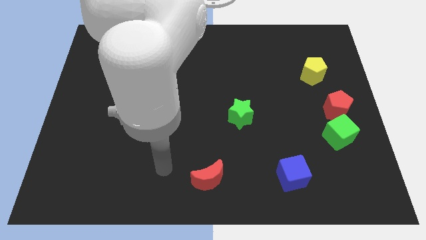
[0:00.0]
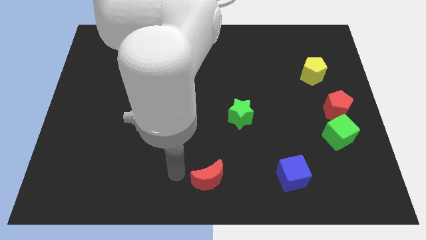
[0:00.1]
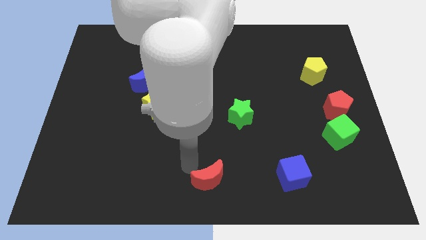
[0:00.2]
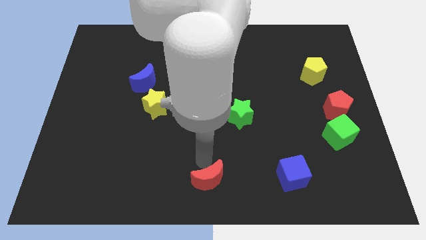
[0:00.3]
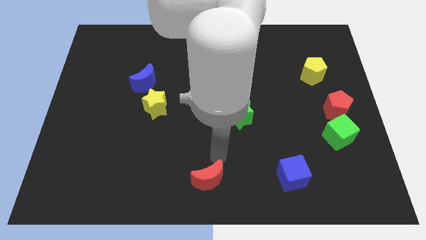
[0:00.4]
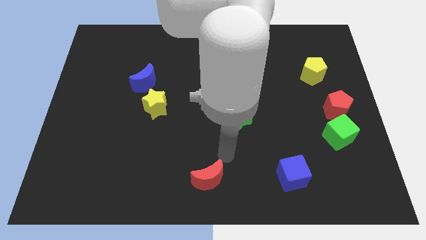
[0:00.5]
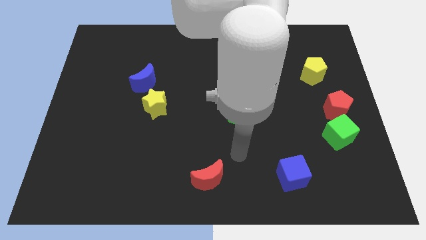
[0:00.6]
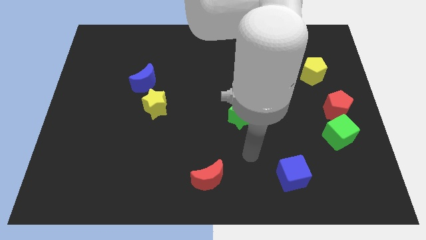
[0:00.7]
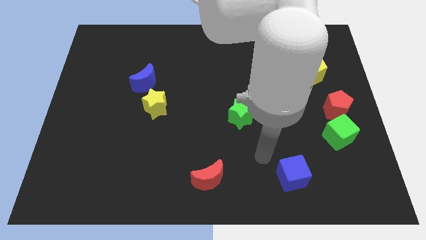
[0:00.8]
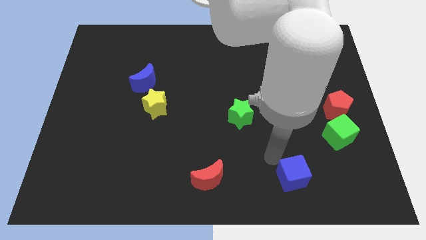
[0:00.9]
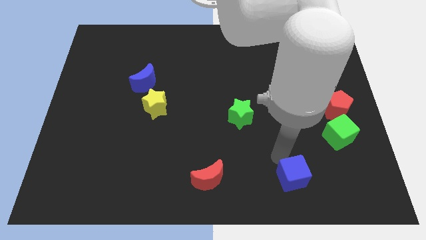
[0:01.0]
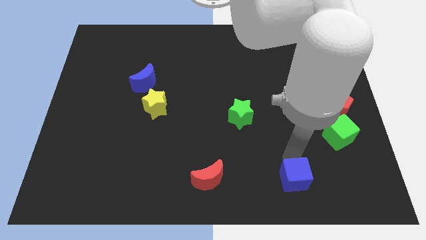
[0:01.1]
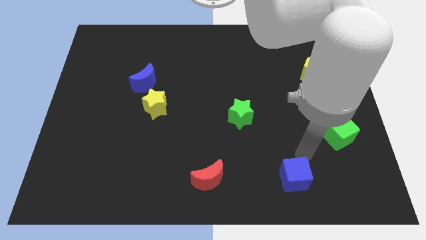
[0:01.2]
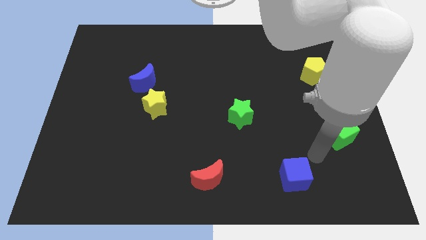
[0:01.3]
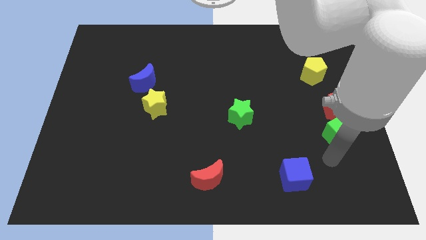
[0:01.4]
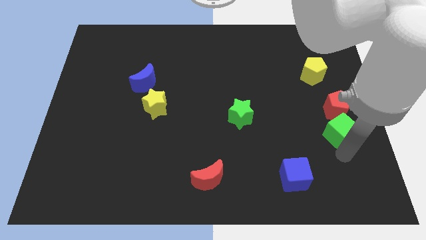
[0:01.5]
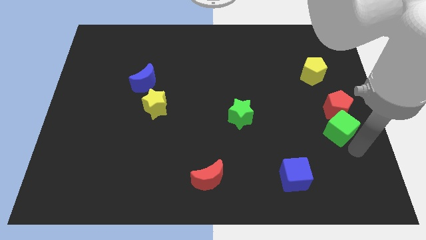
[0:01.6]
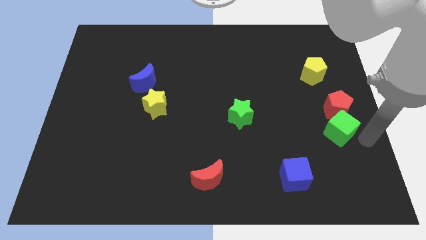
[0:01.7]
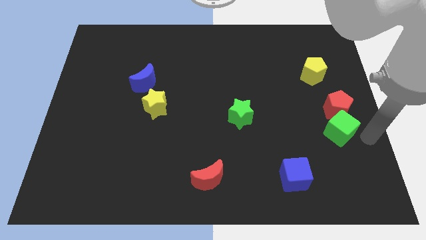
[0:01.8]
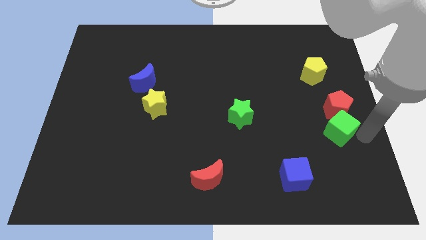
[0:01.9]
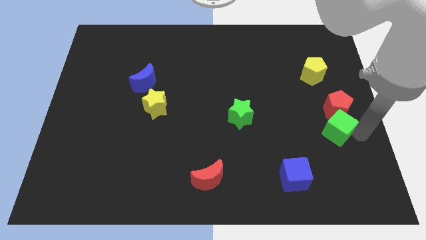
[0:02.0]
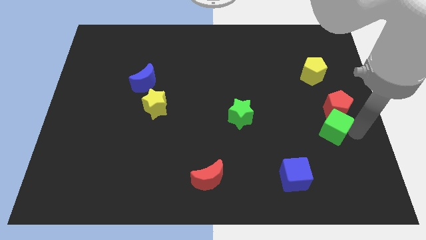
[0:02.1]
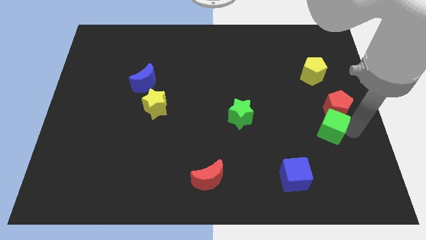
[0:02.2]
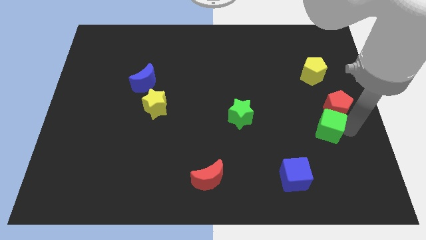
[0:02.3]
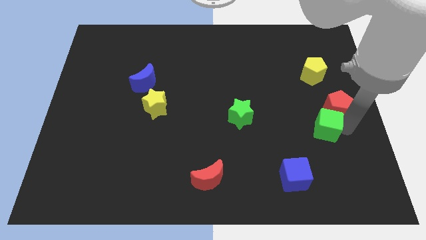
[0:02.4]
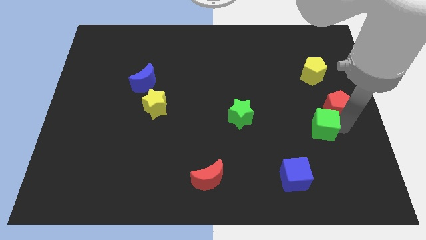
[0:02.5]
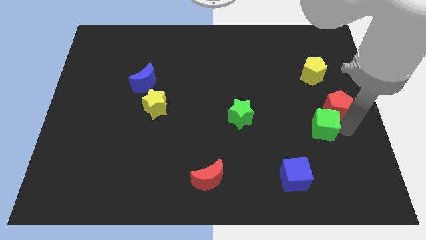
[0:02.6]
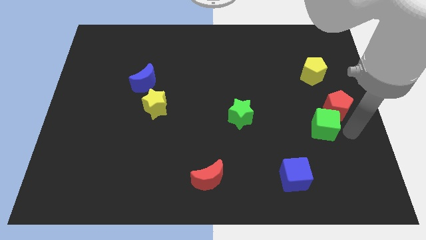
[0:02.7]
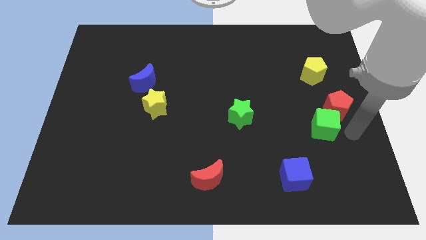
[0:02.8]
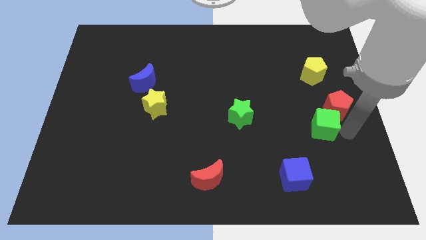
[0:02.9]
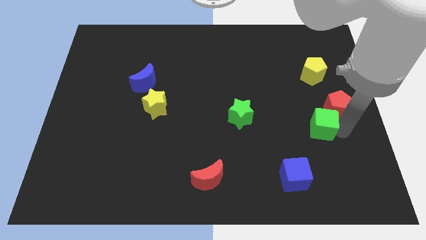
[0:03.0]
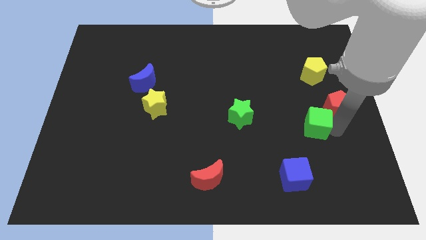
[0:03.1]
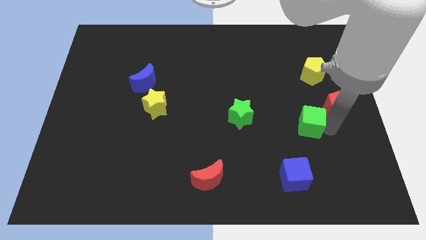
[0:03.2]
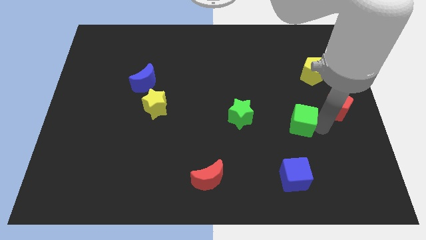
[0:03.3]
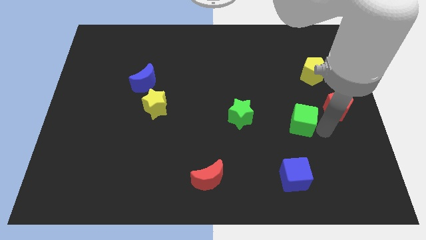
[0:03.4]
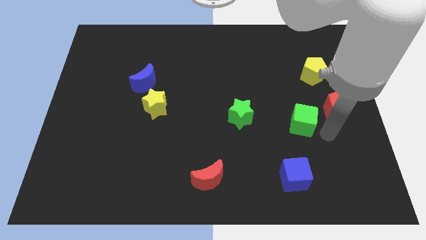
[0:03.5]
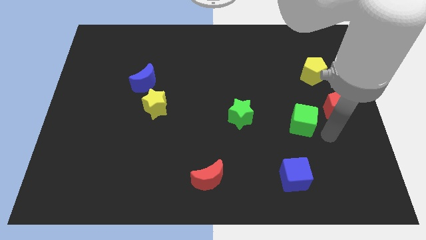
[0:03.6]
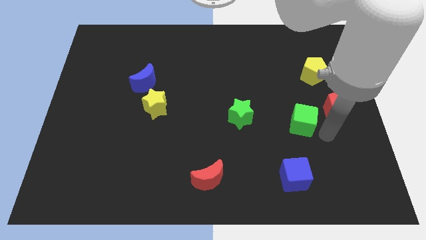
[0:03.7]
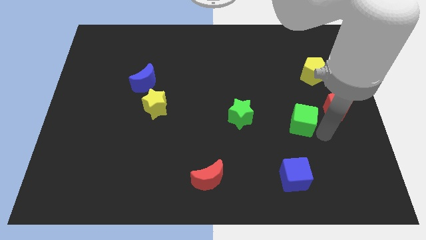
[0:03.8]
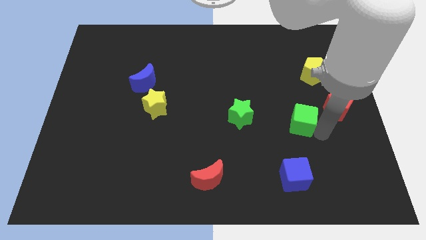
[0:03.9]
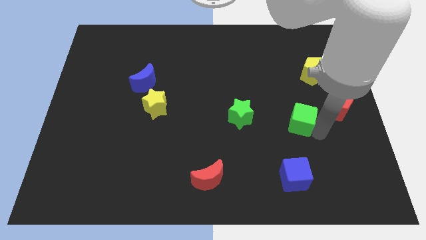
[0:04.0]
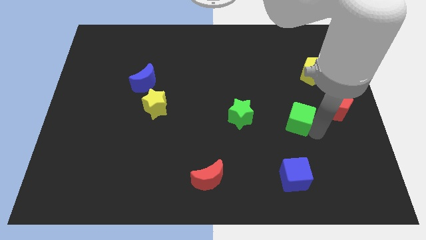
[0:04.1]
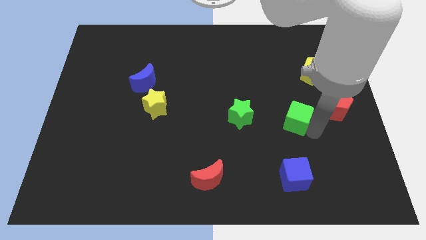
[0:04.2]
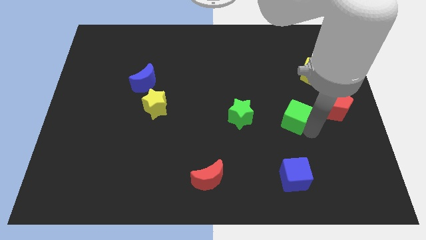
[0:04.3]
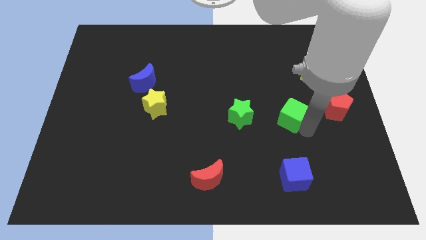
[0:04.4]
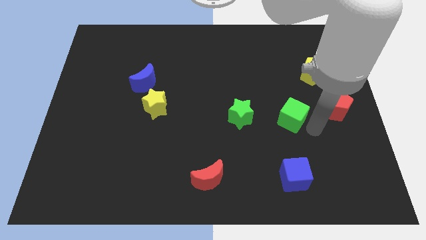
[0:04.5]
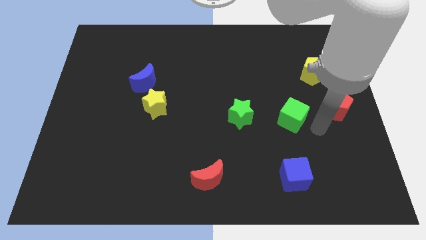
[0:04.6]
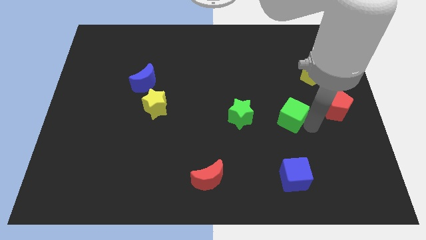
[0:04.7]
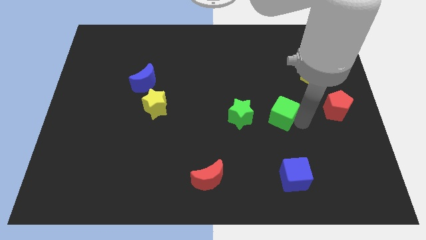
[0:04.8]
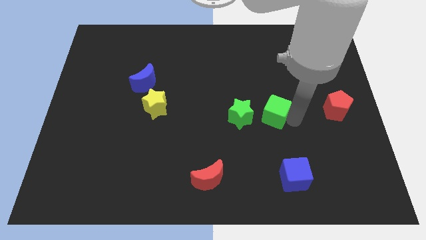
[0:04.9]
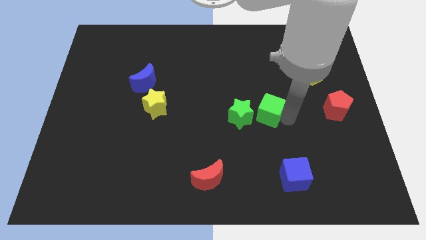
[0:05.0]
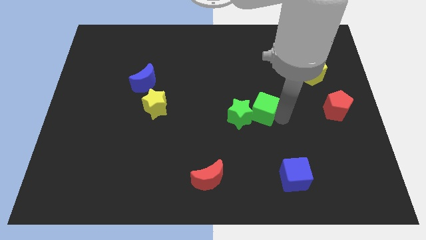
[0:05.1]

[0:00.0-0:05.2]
put the green cube to the center

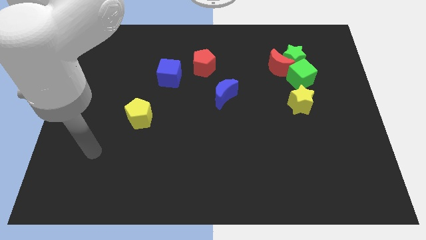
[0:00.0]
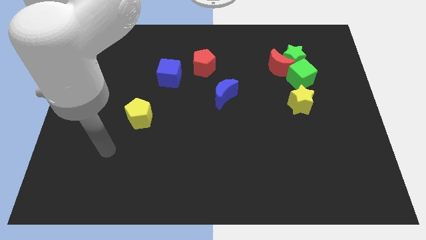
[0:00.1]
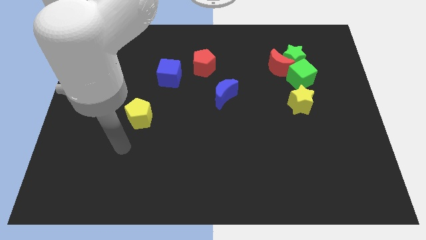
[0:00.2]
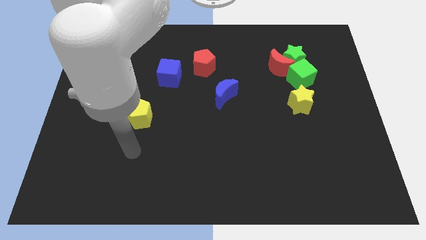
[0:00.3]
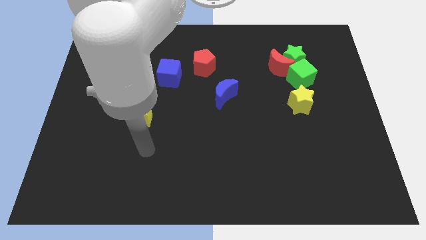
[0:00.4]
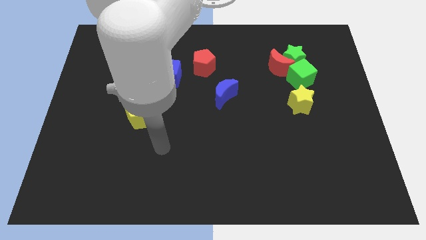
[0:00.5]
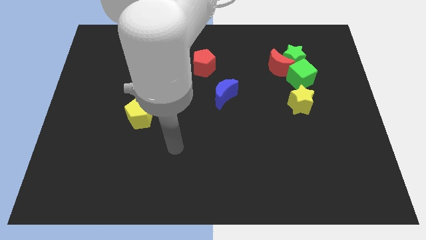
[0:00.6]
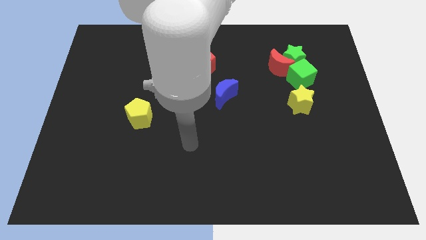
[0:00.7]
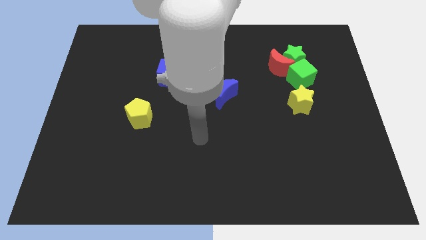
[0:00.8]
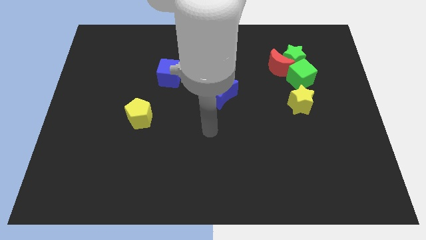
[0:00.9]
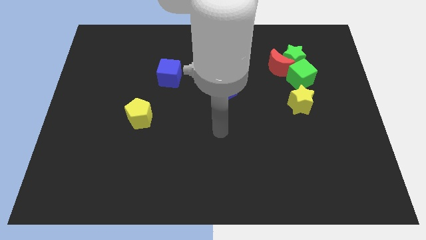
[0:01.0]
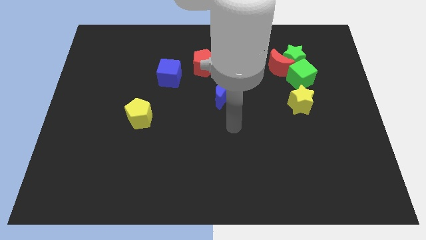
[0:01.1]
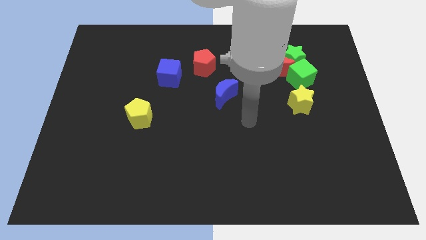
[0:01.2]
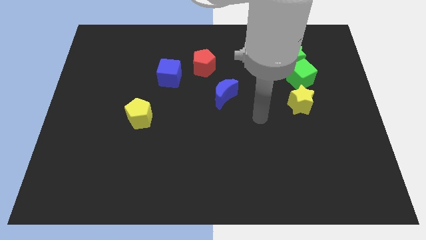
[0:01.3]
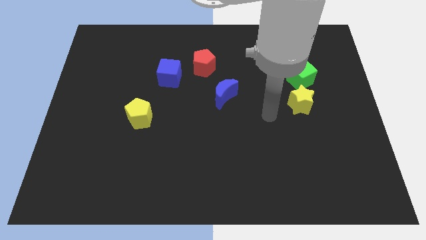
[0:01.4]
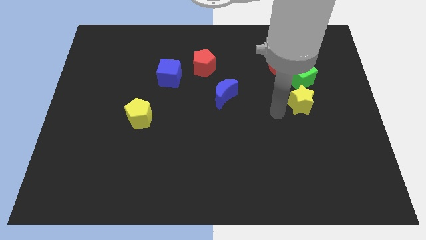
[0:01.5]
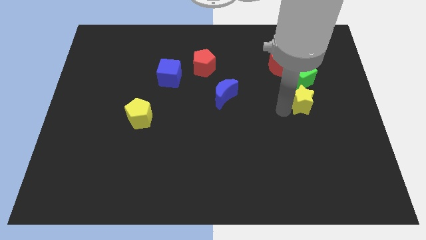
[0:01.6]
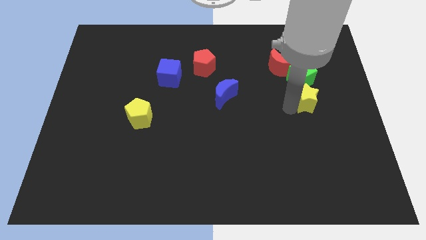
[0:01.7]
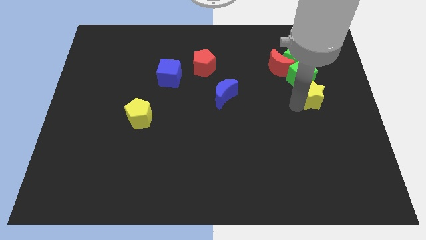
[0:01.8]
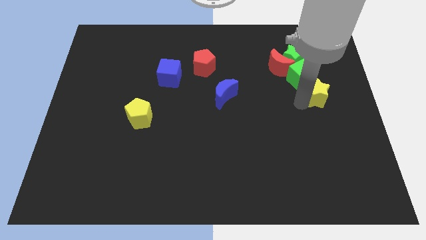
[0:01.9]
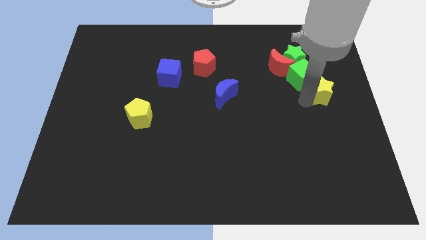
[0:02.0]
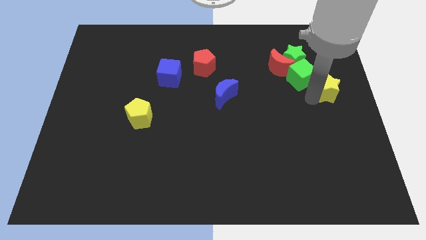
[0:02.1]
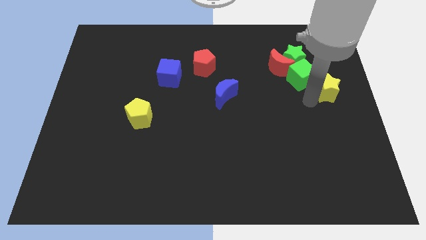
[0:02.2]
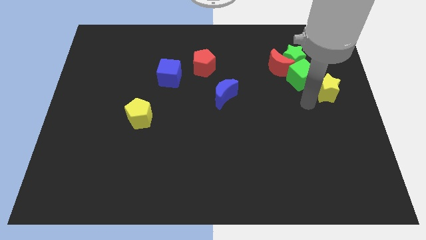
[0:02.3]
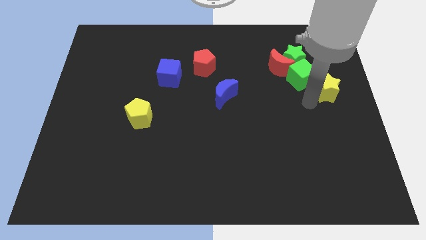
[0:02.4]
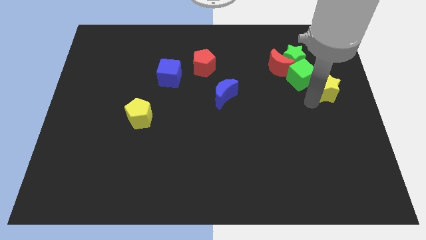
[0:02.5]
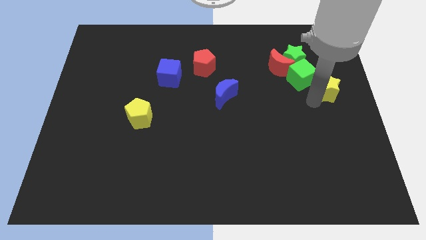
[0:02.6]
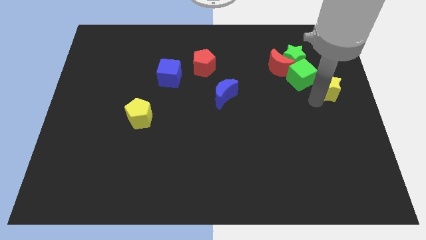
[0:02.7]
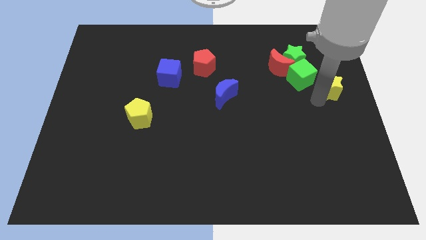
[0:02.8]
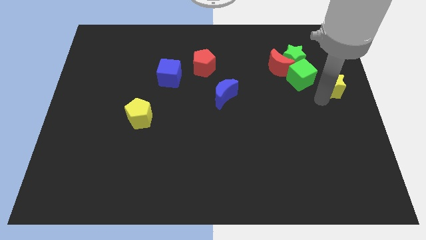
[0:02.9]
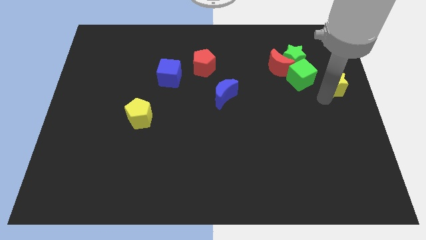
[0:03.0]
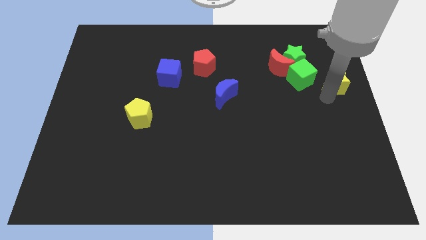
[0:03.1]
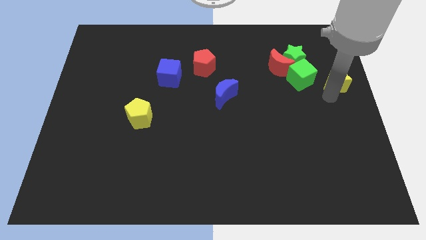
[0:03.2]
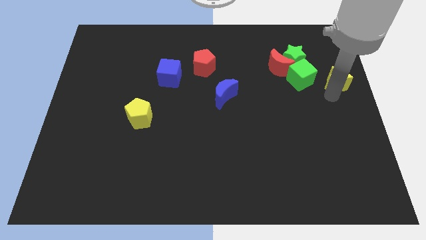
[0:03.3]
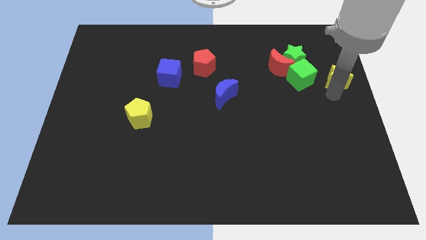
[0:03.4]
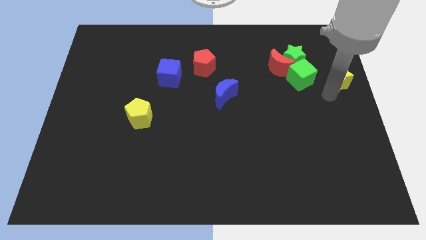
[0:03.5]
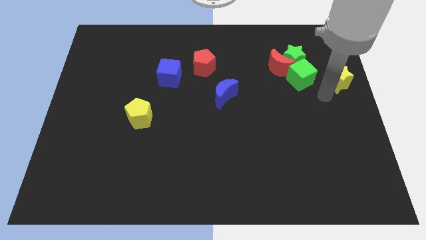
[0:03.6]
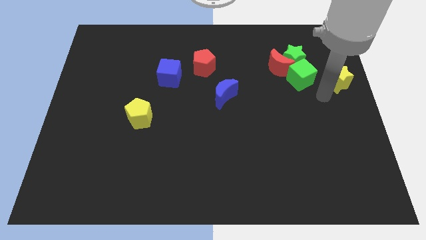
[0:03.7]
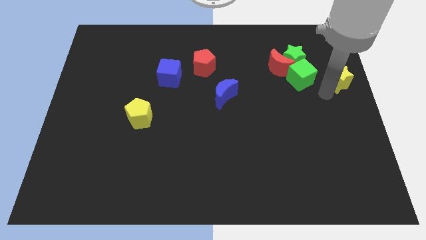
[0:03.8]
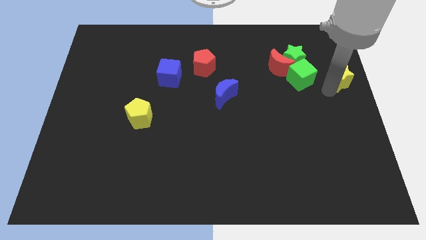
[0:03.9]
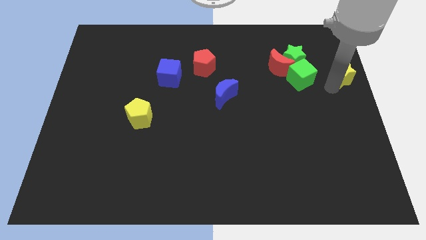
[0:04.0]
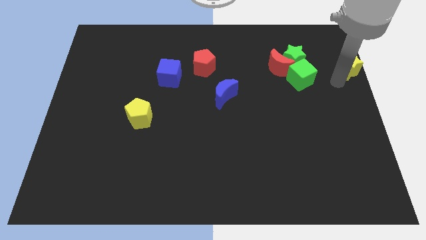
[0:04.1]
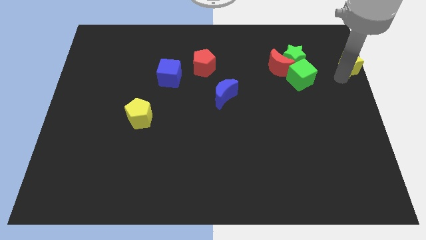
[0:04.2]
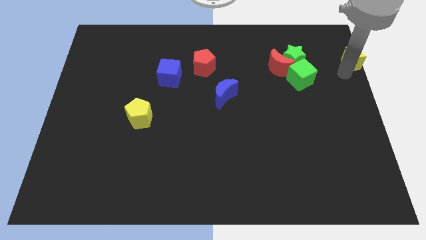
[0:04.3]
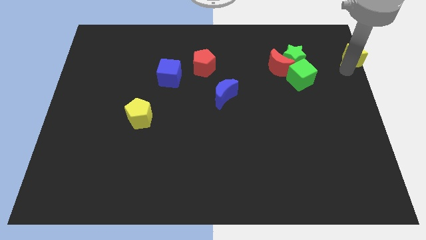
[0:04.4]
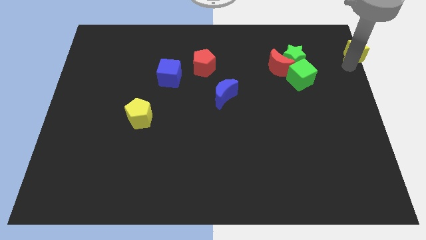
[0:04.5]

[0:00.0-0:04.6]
slide the yellow star to the upper right corner
